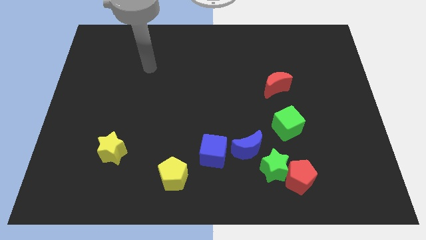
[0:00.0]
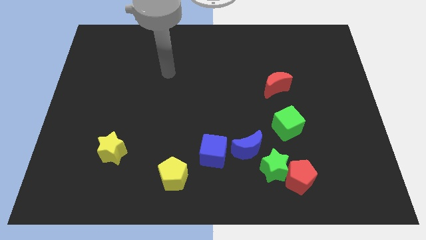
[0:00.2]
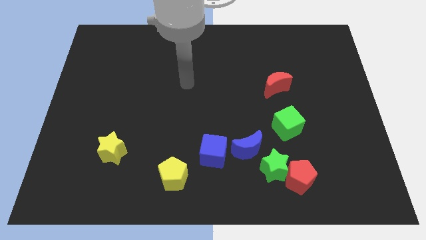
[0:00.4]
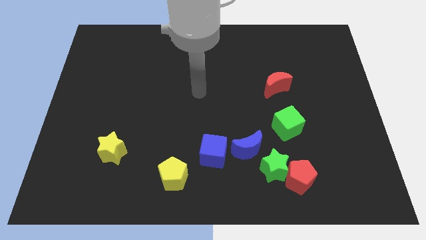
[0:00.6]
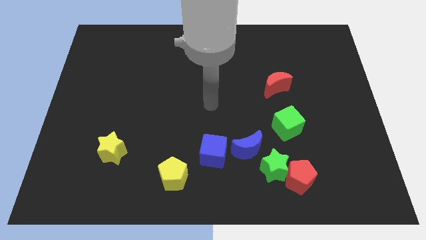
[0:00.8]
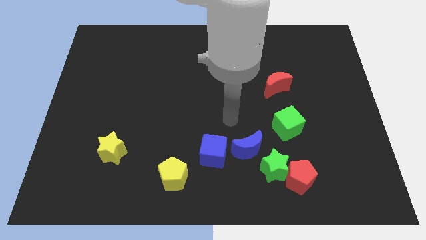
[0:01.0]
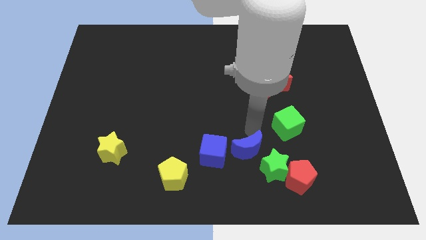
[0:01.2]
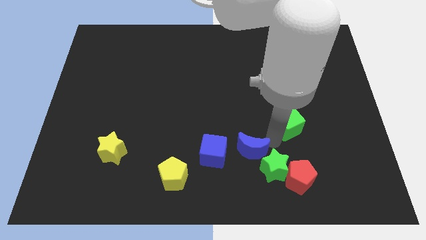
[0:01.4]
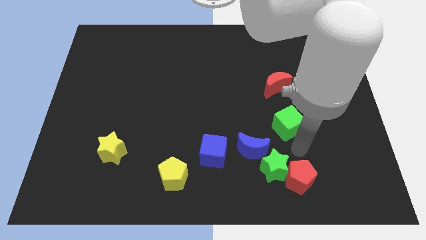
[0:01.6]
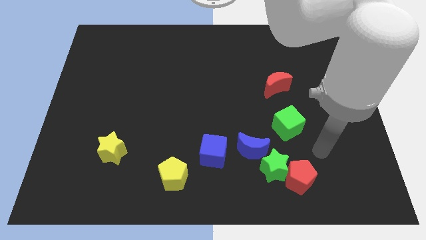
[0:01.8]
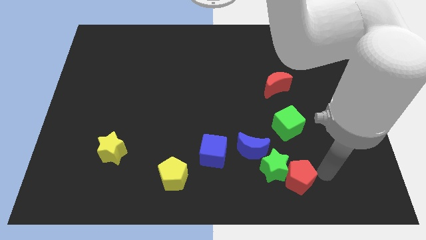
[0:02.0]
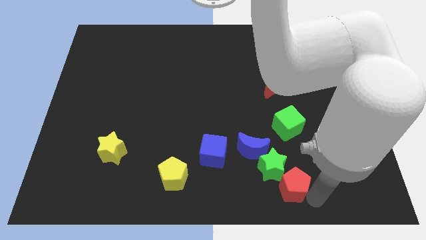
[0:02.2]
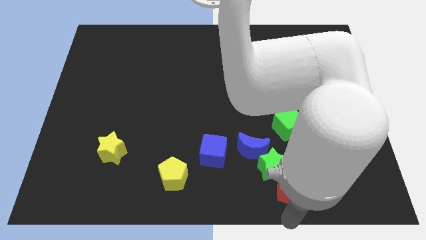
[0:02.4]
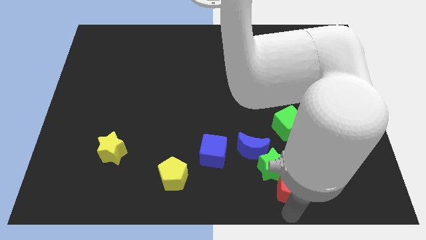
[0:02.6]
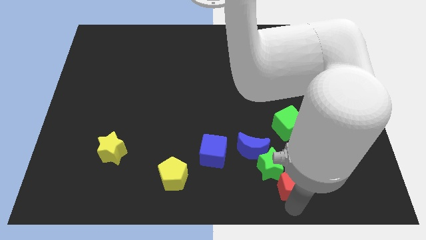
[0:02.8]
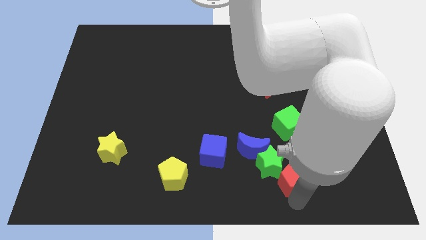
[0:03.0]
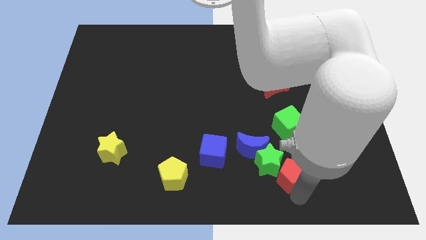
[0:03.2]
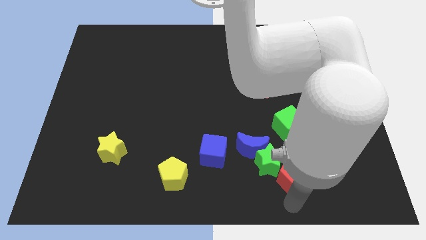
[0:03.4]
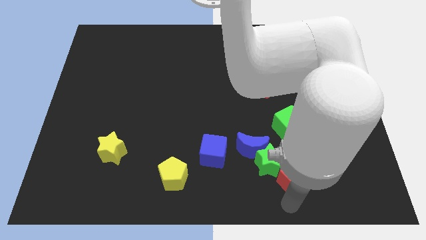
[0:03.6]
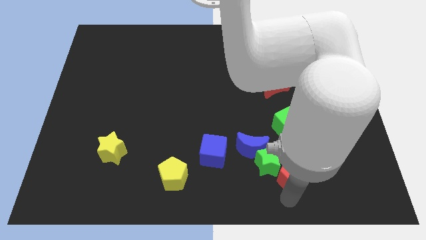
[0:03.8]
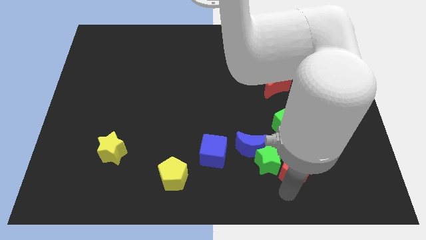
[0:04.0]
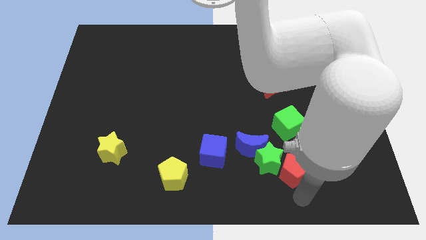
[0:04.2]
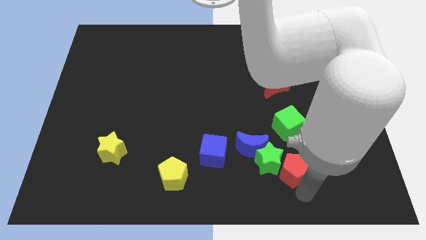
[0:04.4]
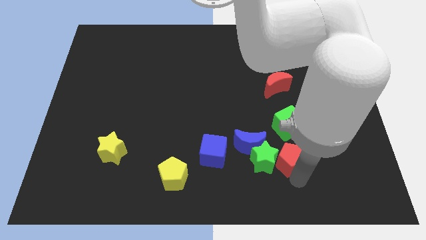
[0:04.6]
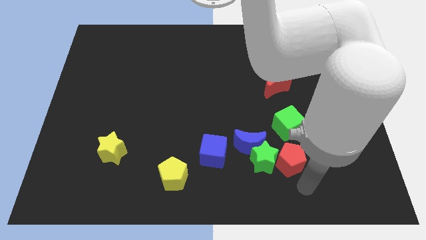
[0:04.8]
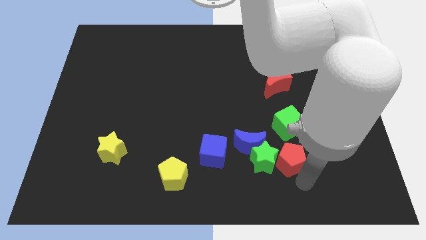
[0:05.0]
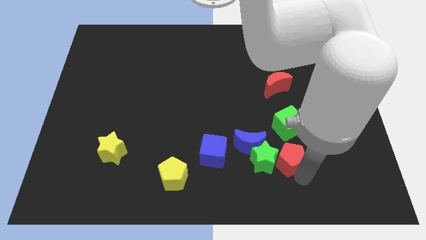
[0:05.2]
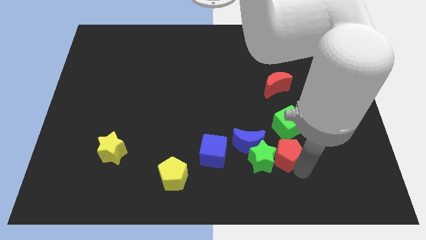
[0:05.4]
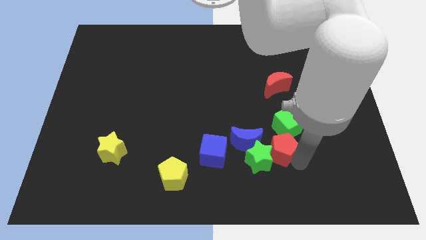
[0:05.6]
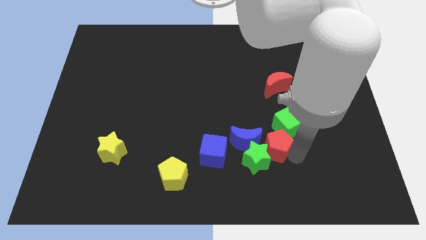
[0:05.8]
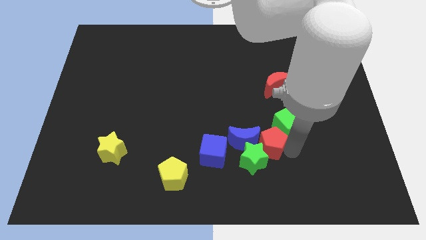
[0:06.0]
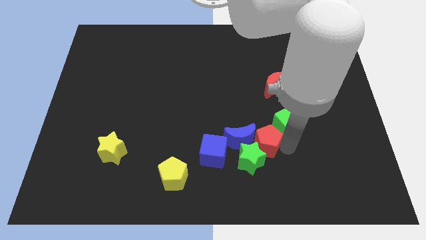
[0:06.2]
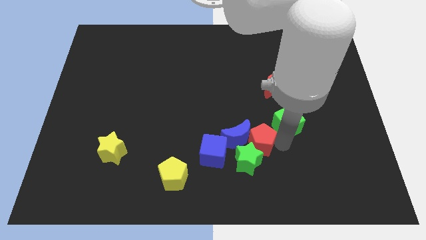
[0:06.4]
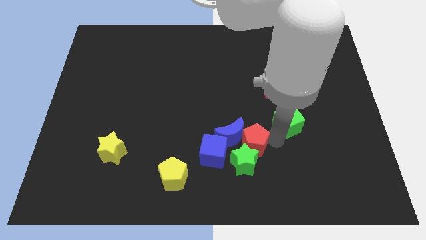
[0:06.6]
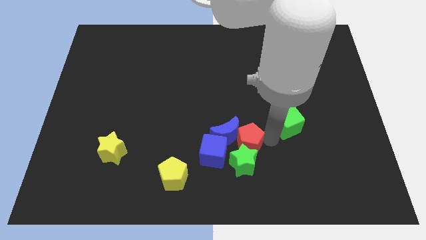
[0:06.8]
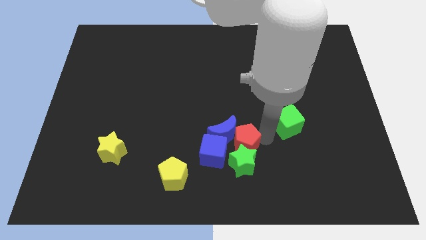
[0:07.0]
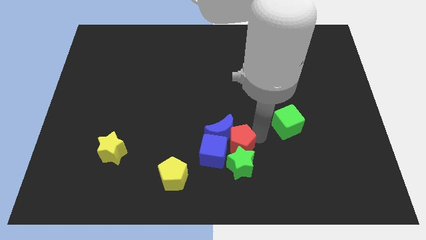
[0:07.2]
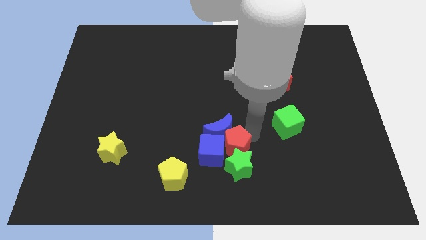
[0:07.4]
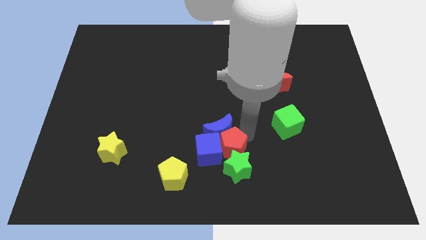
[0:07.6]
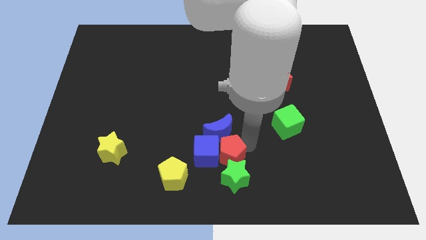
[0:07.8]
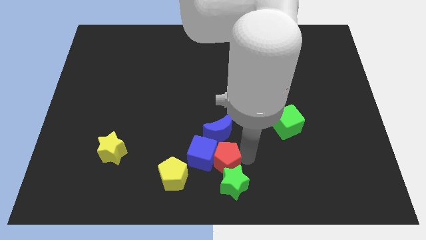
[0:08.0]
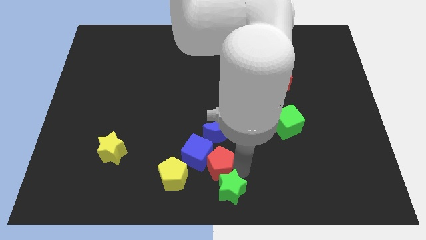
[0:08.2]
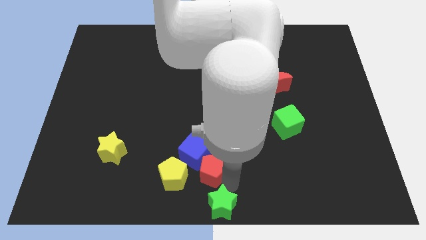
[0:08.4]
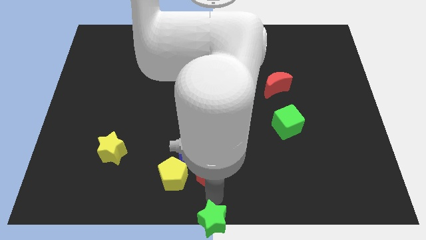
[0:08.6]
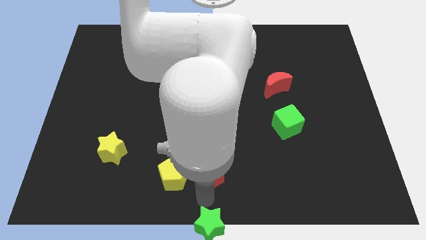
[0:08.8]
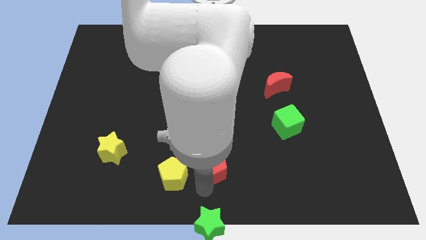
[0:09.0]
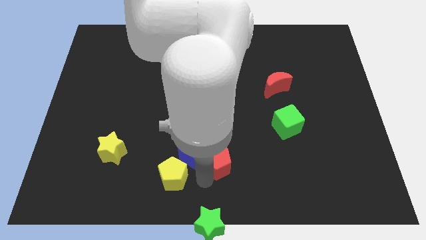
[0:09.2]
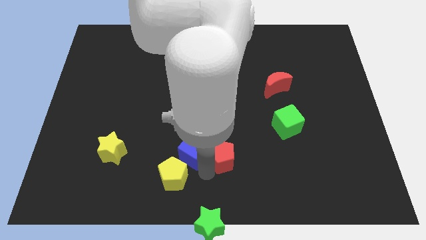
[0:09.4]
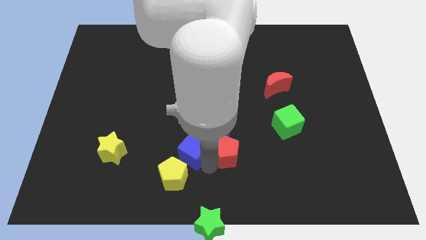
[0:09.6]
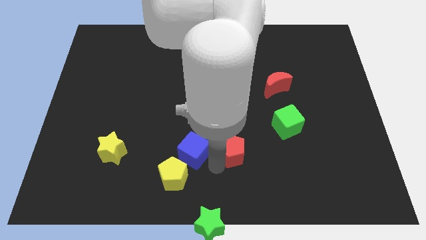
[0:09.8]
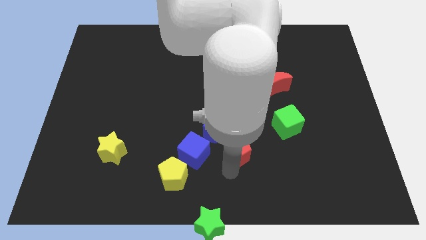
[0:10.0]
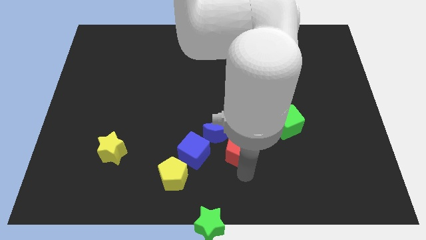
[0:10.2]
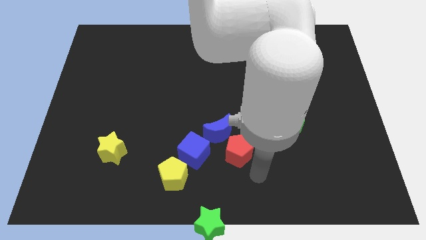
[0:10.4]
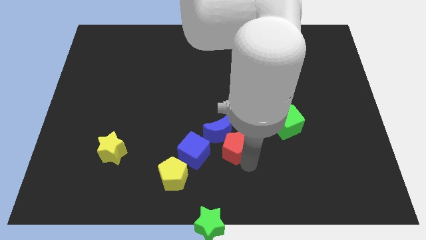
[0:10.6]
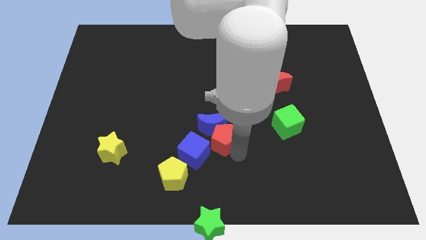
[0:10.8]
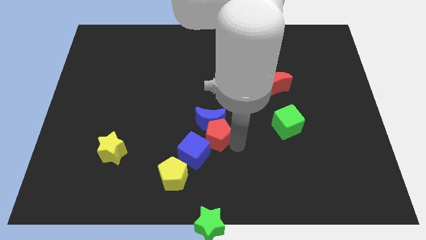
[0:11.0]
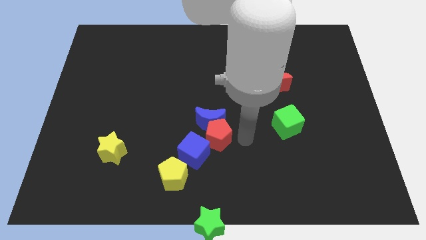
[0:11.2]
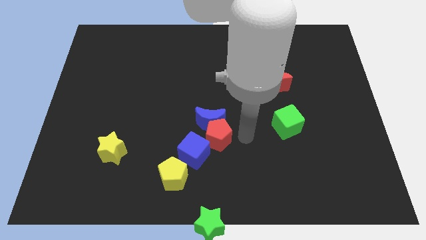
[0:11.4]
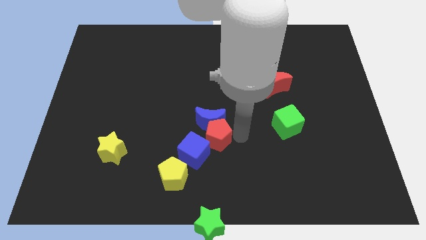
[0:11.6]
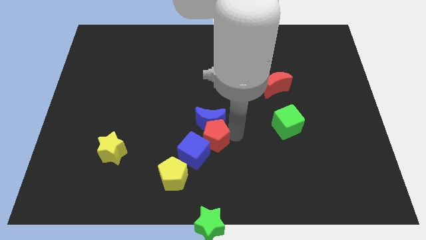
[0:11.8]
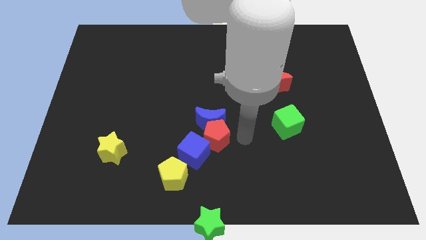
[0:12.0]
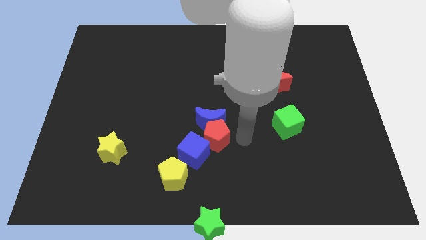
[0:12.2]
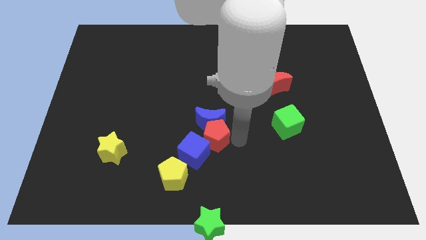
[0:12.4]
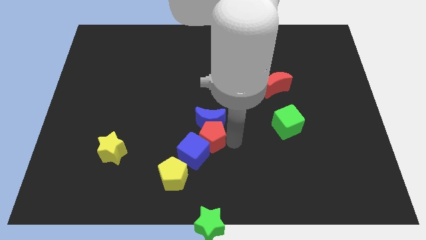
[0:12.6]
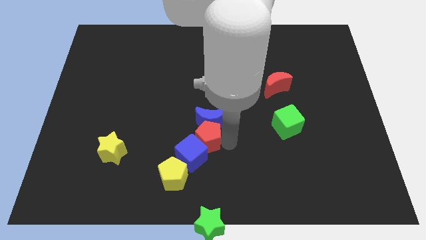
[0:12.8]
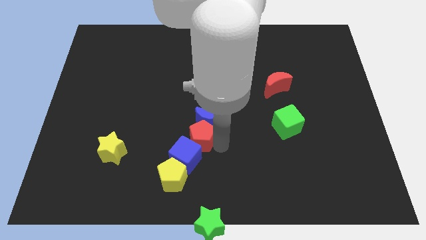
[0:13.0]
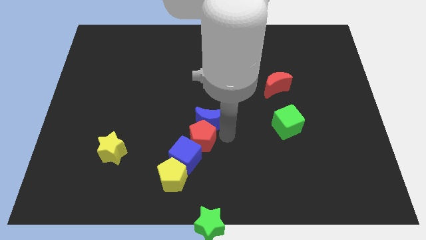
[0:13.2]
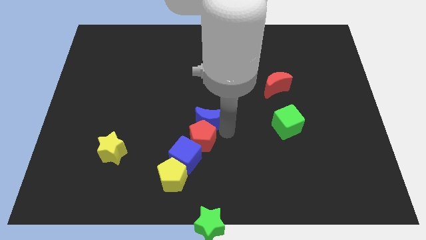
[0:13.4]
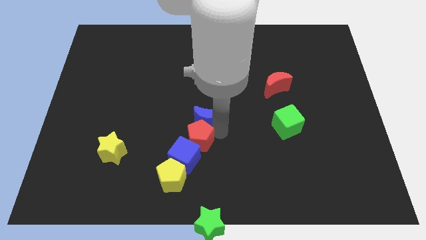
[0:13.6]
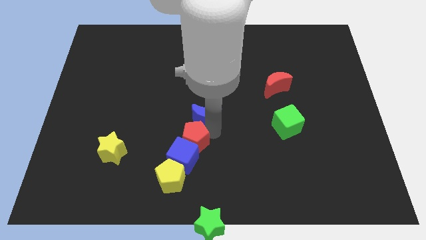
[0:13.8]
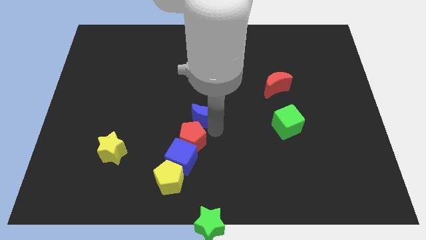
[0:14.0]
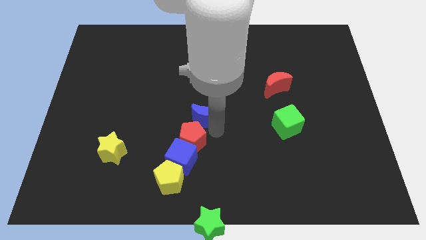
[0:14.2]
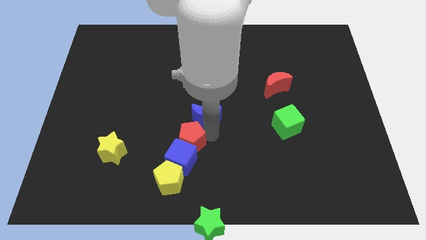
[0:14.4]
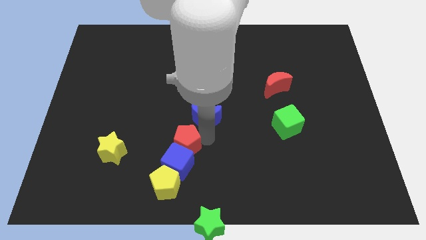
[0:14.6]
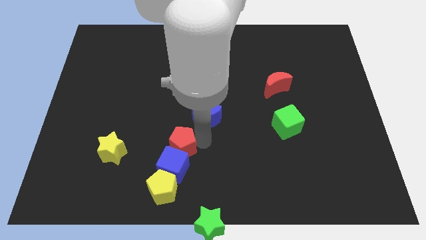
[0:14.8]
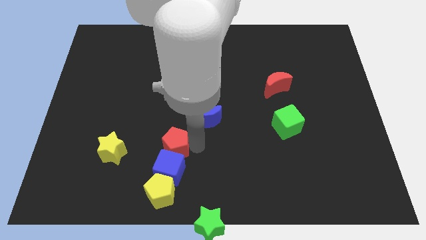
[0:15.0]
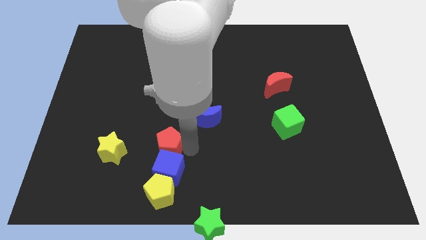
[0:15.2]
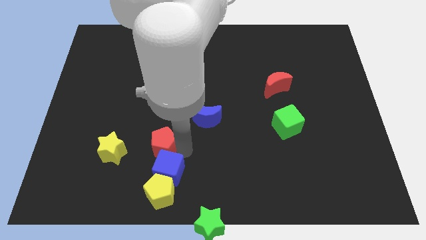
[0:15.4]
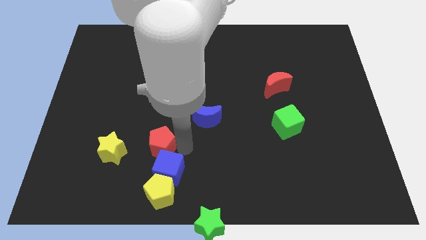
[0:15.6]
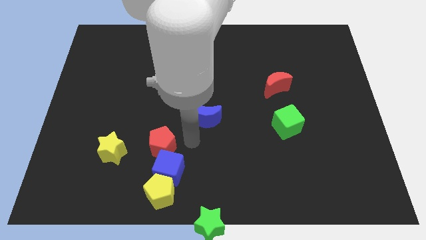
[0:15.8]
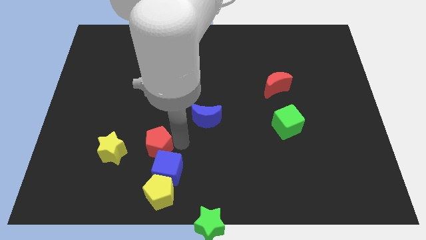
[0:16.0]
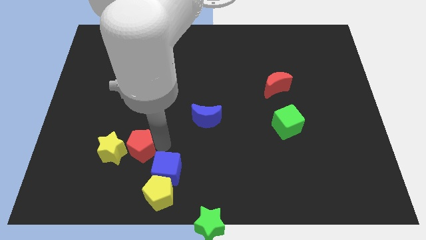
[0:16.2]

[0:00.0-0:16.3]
move the red pentagon next to the yellow star
